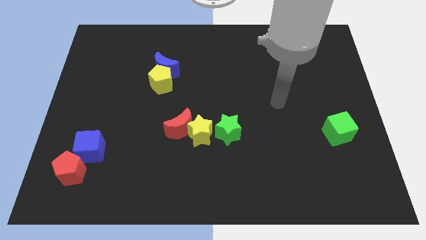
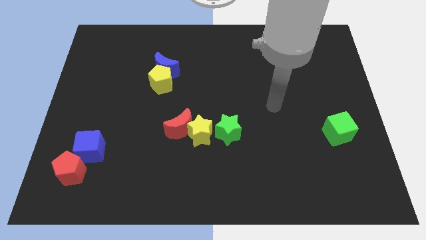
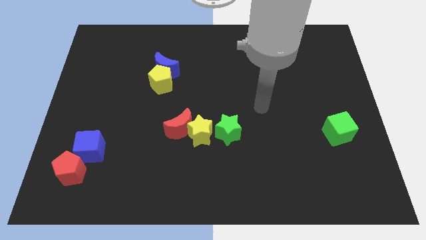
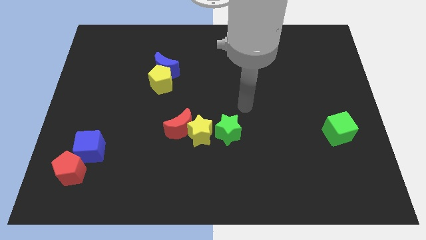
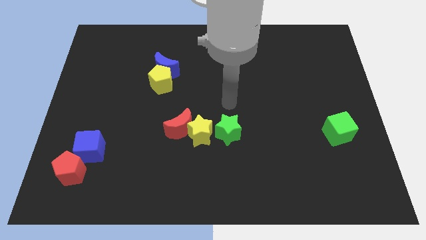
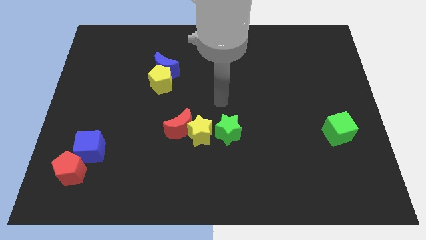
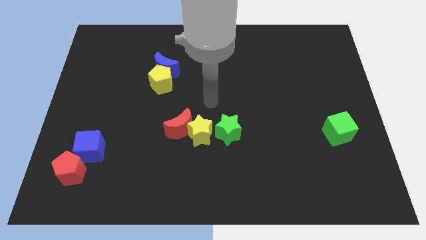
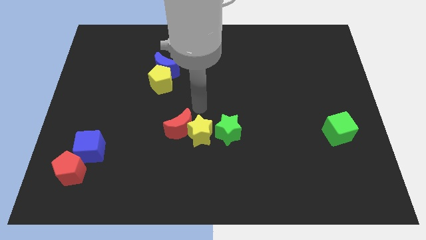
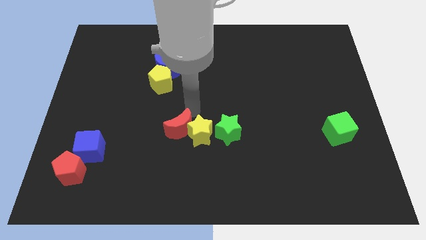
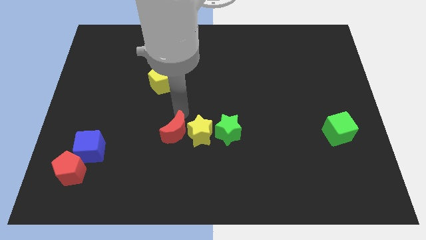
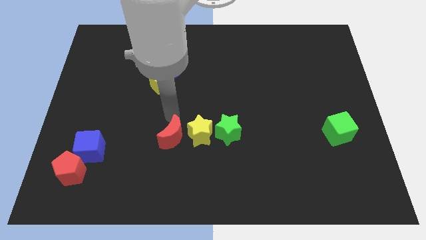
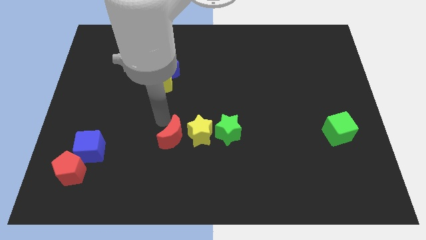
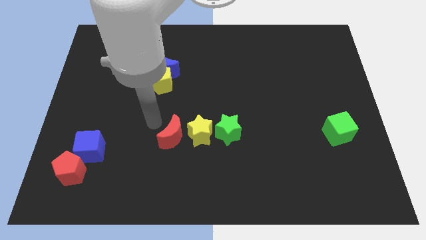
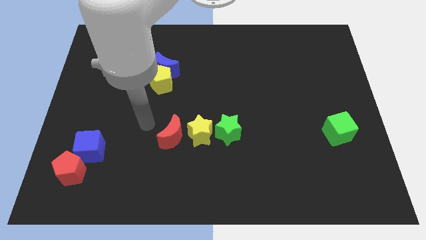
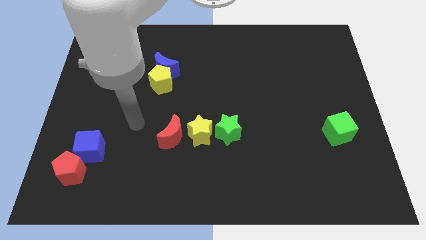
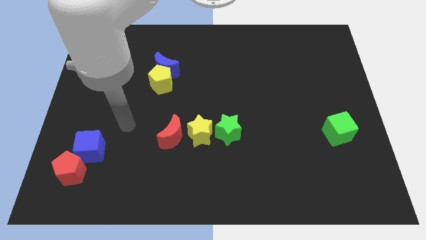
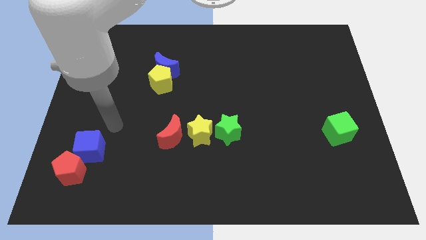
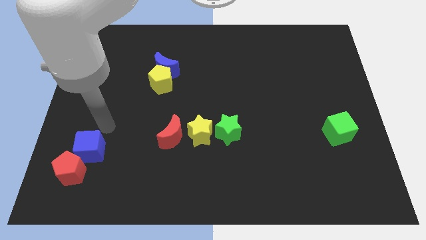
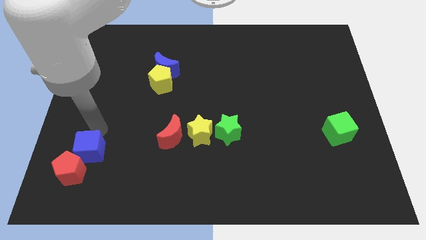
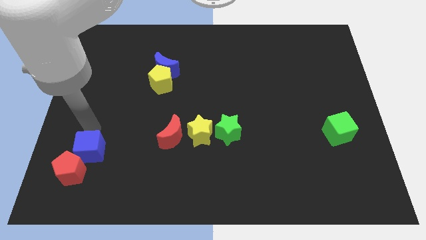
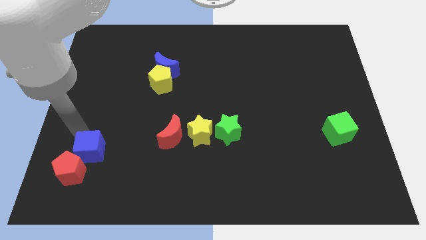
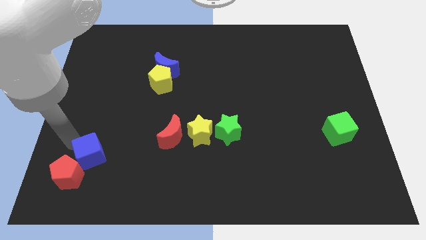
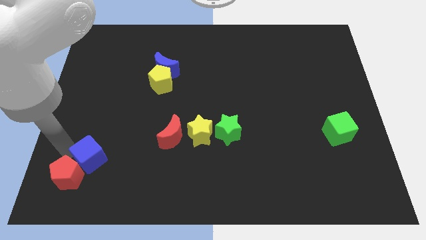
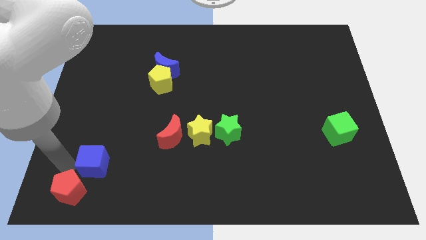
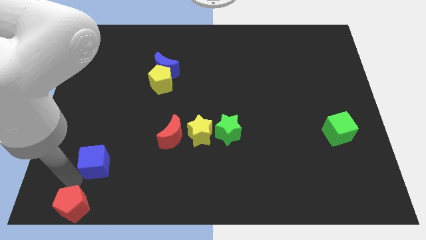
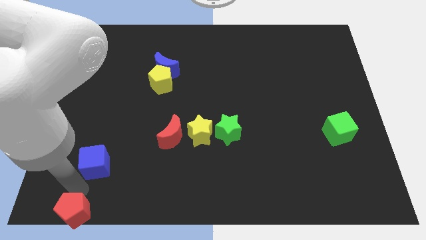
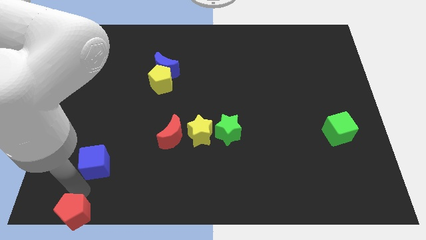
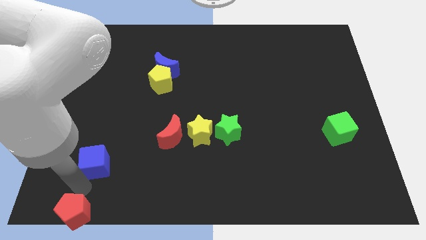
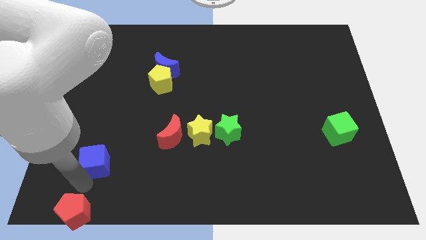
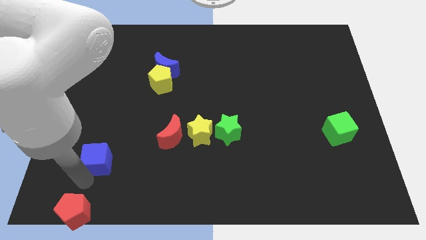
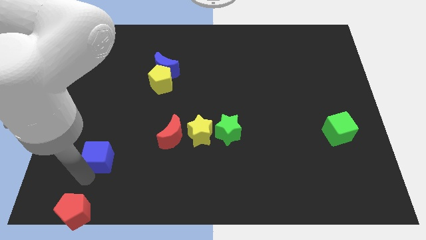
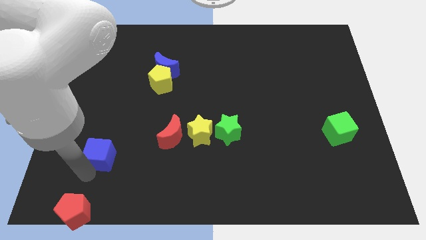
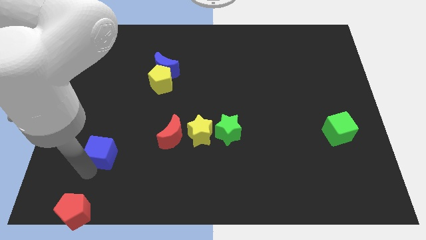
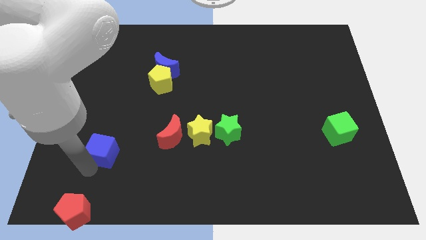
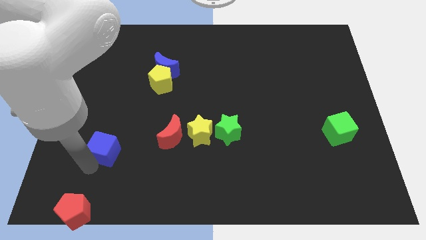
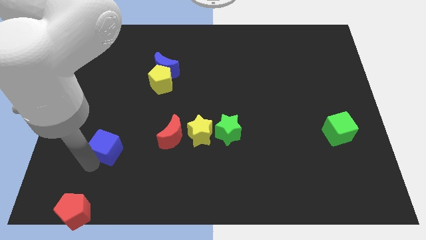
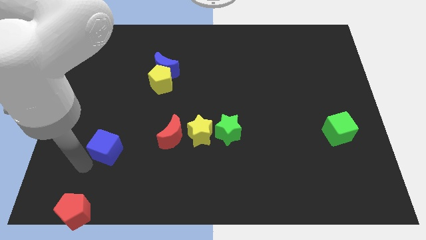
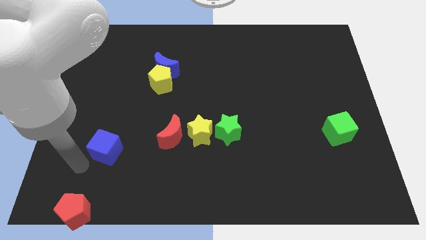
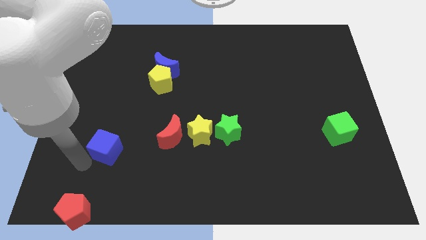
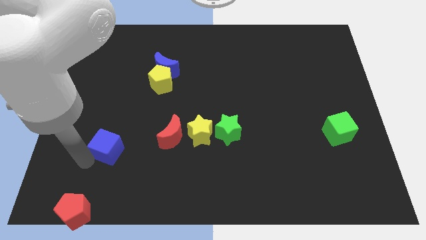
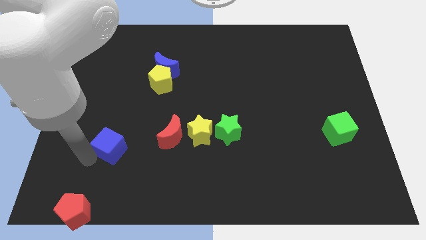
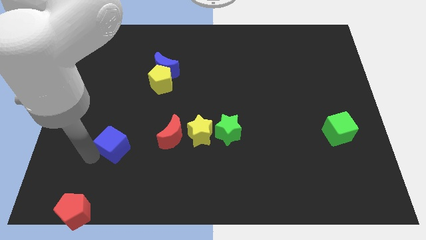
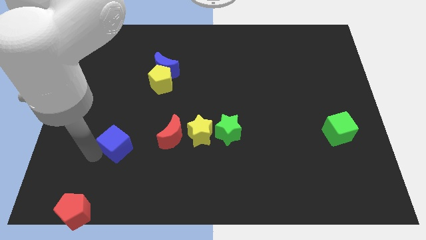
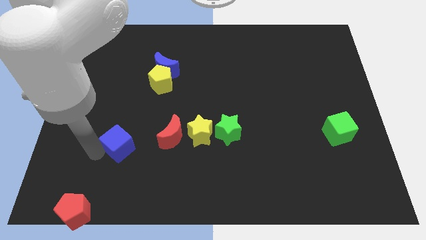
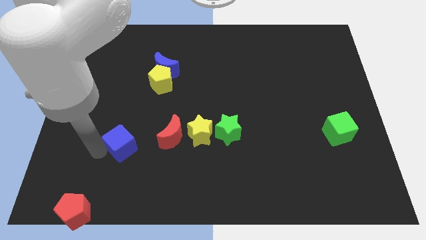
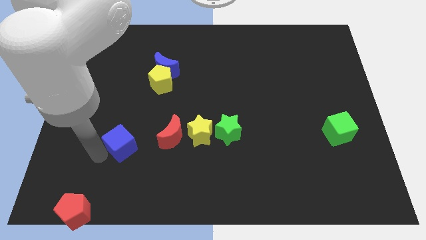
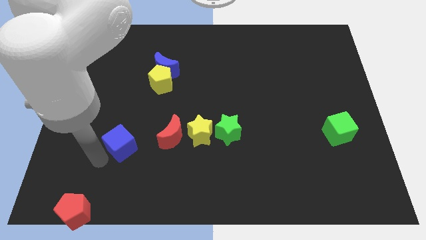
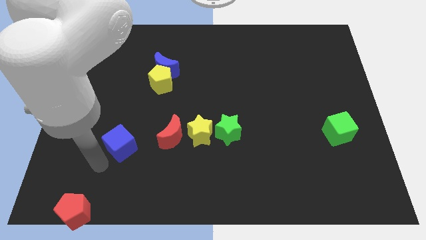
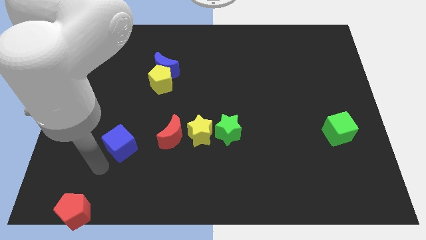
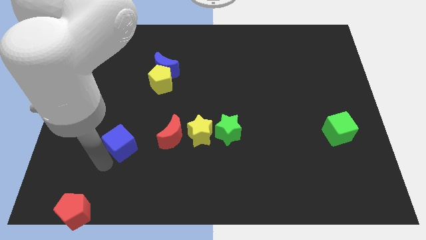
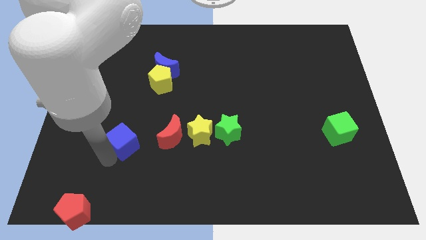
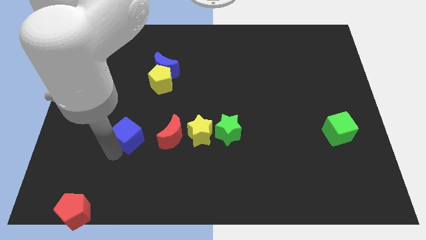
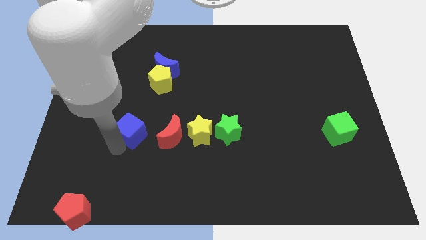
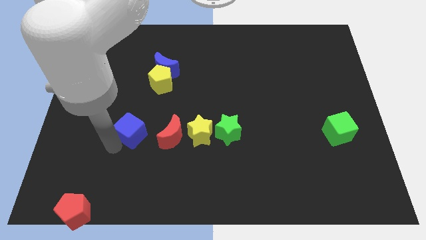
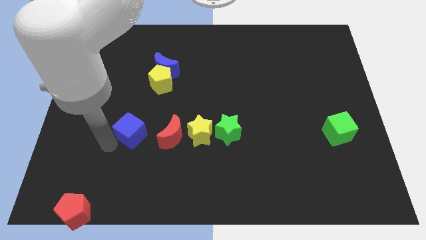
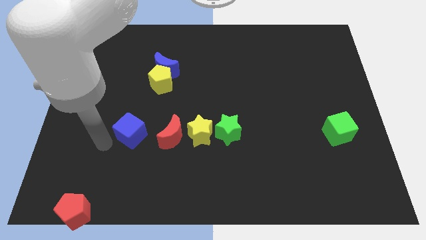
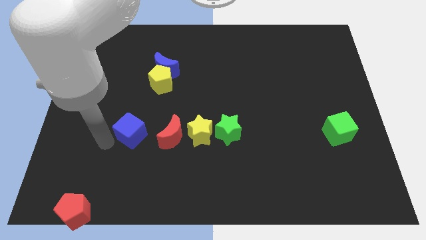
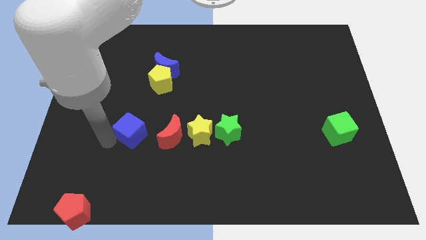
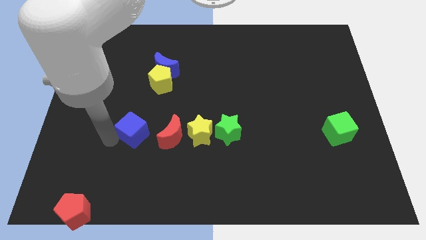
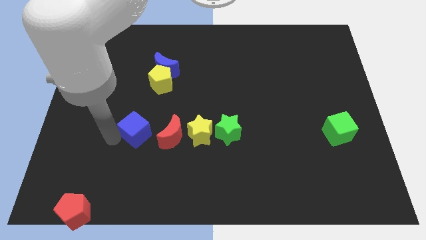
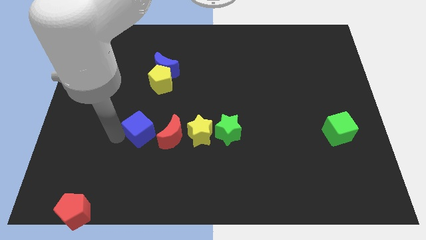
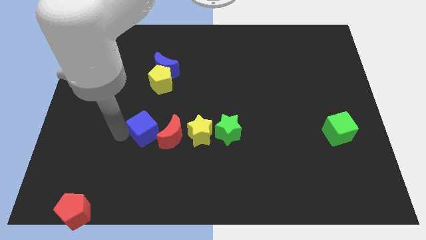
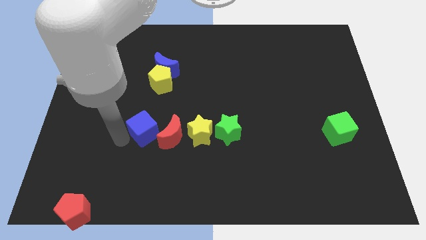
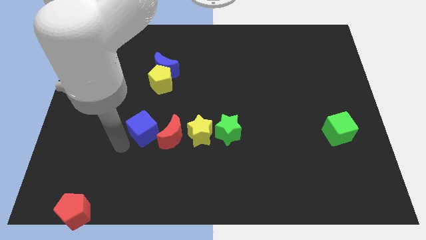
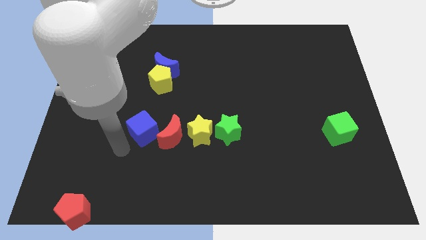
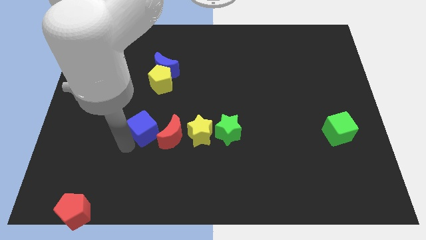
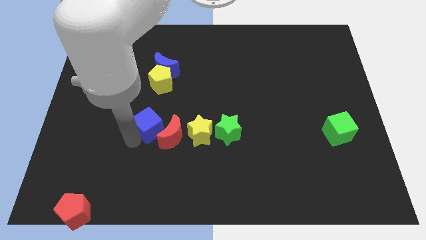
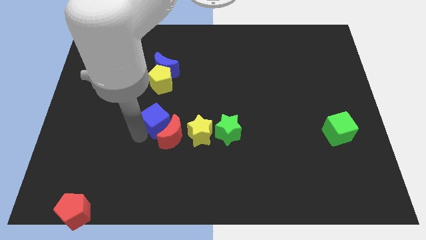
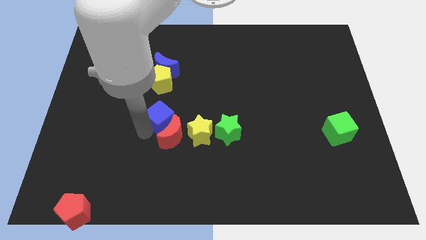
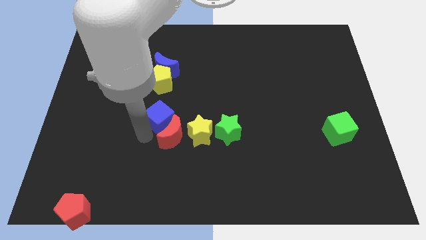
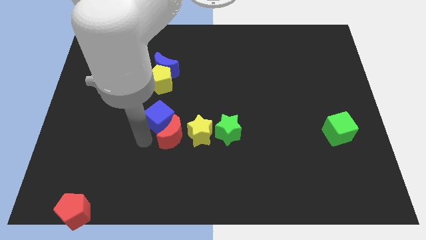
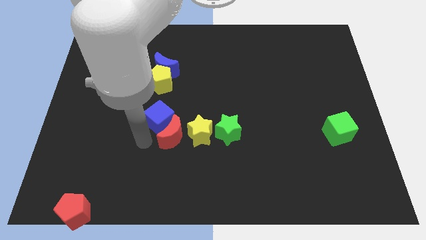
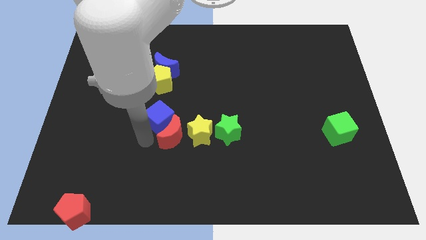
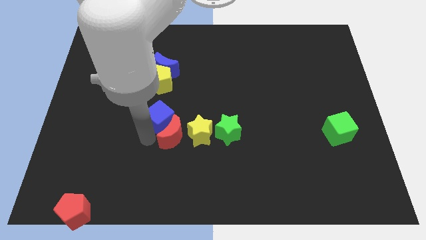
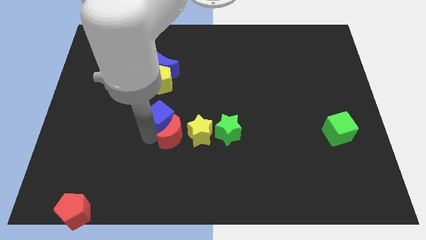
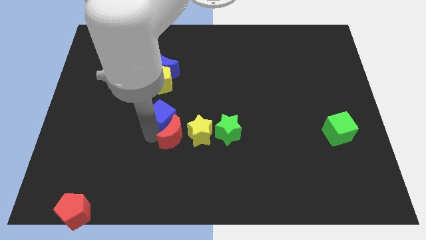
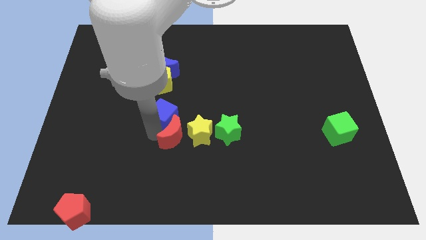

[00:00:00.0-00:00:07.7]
move the blue cube to the middle
